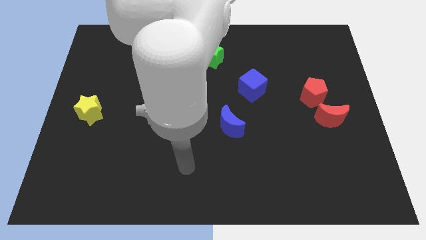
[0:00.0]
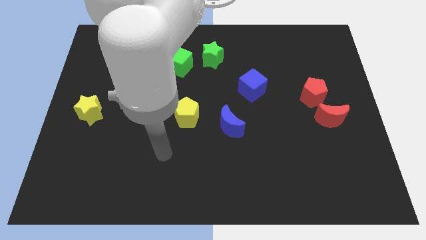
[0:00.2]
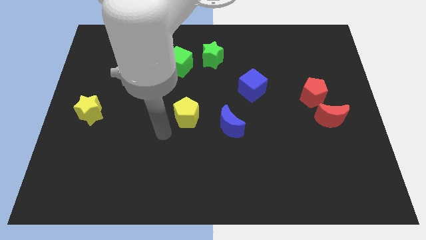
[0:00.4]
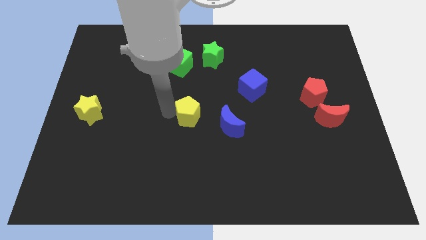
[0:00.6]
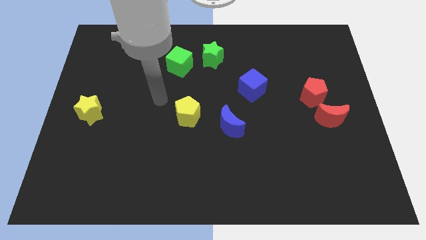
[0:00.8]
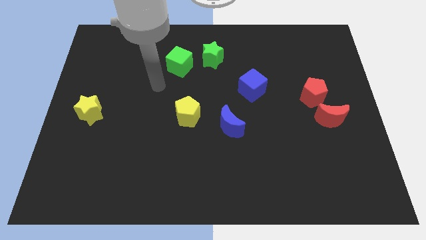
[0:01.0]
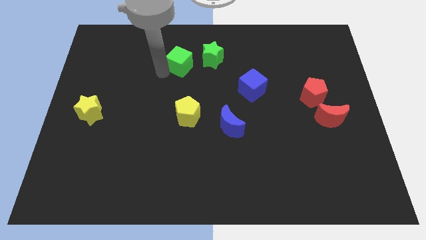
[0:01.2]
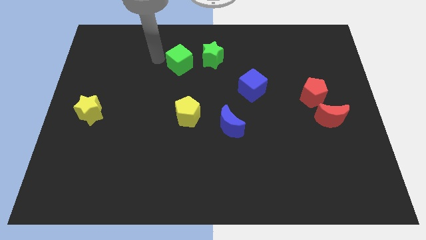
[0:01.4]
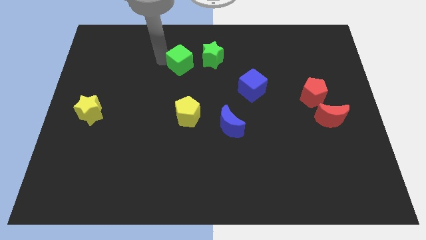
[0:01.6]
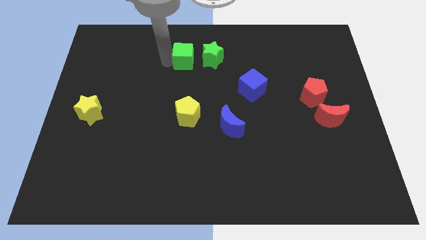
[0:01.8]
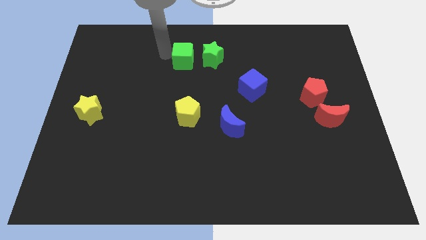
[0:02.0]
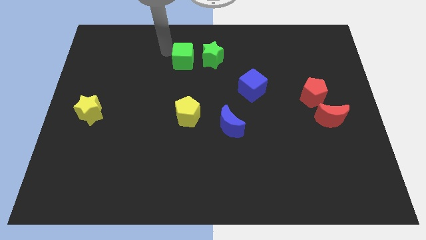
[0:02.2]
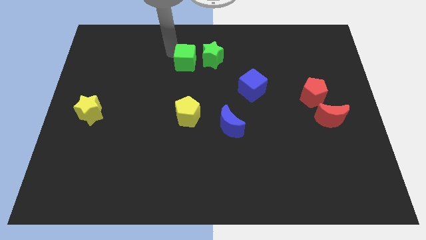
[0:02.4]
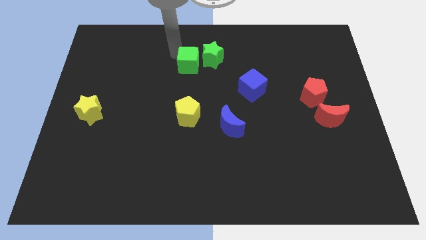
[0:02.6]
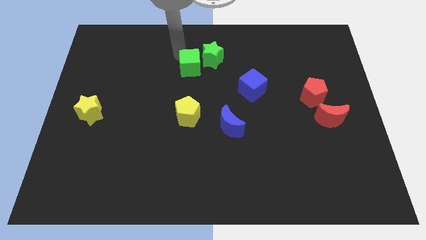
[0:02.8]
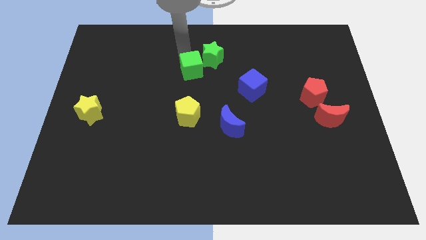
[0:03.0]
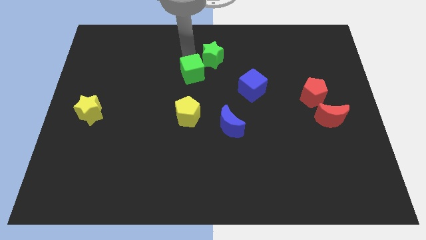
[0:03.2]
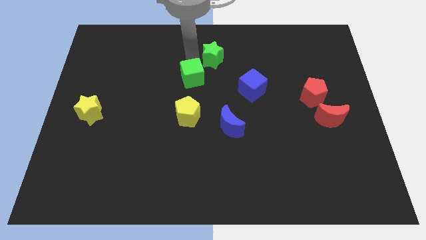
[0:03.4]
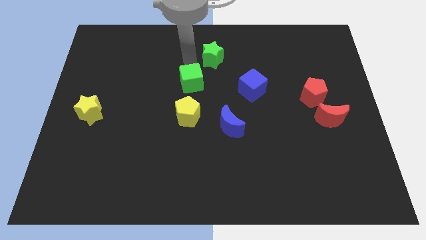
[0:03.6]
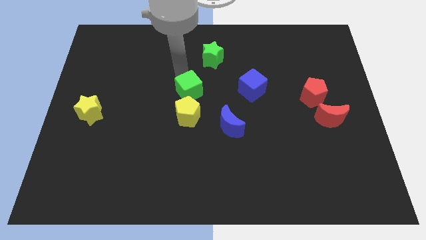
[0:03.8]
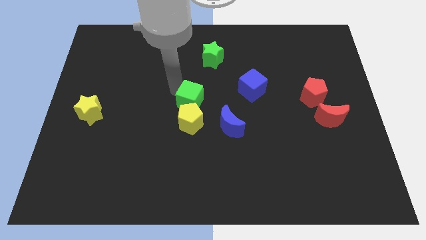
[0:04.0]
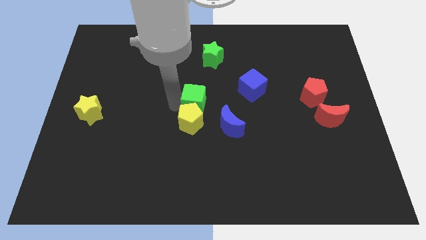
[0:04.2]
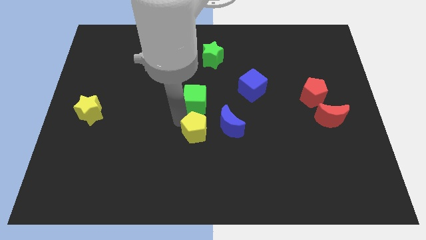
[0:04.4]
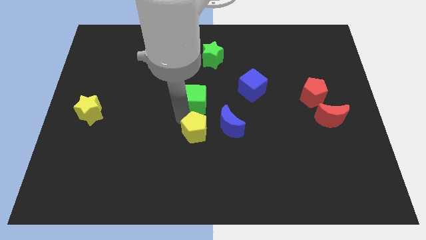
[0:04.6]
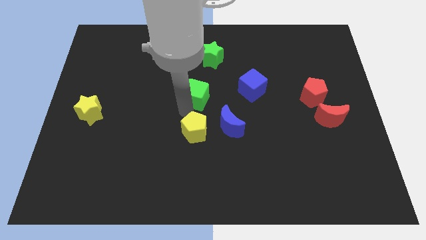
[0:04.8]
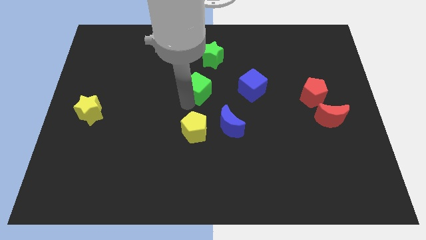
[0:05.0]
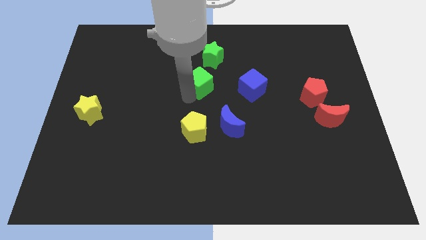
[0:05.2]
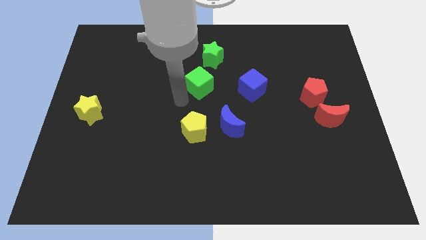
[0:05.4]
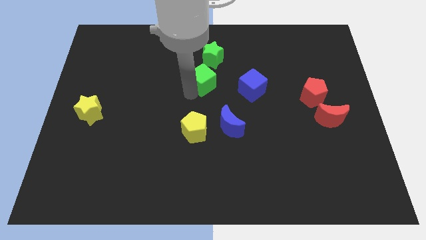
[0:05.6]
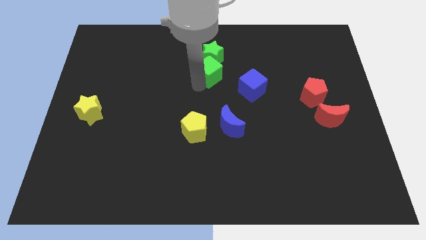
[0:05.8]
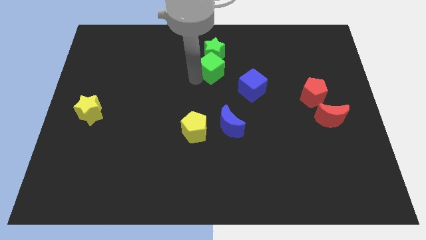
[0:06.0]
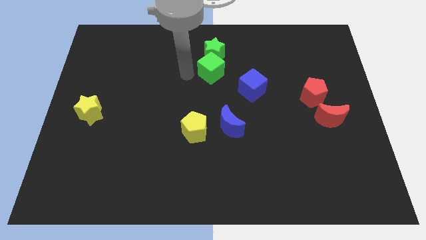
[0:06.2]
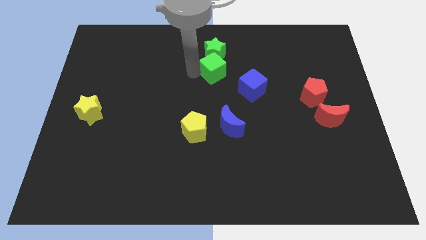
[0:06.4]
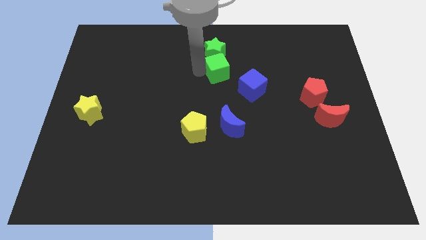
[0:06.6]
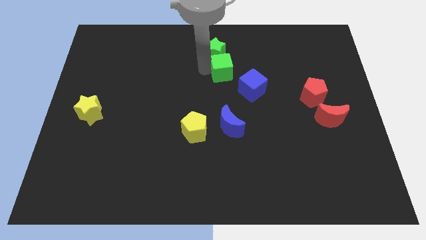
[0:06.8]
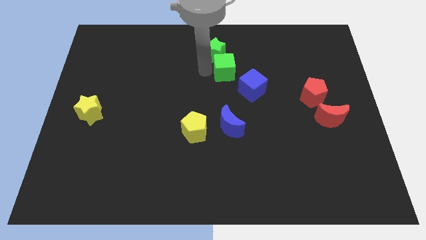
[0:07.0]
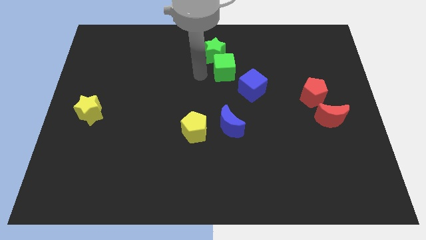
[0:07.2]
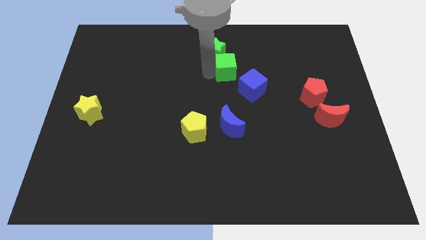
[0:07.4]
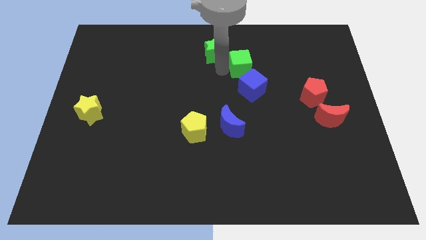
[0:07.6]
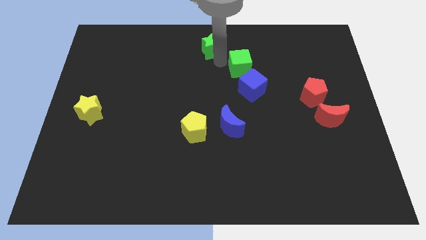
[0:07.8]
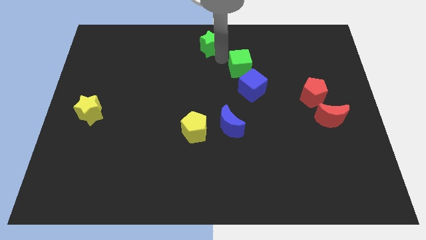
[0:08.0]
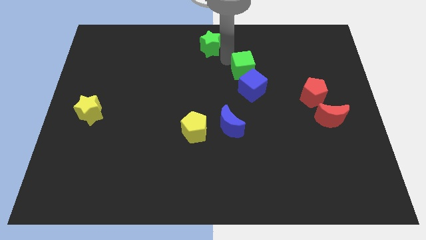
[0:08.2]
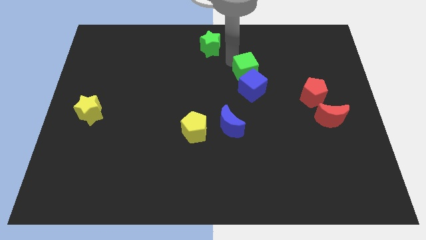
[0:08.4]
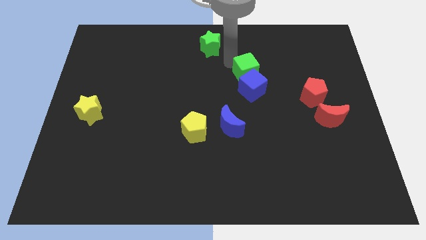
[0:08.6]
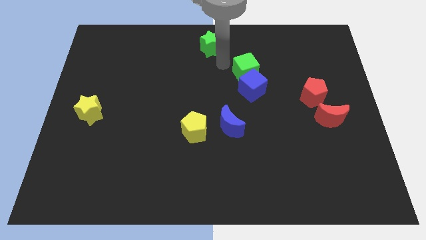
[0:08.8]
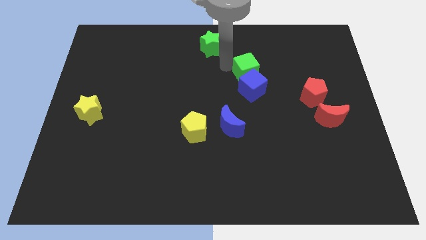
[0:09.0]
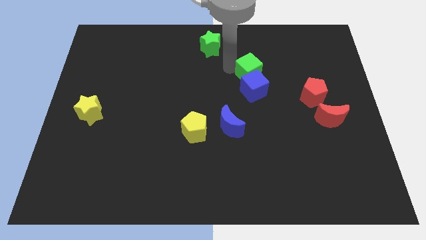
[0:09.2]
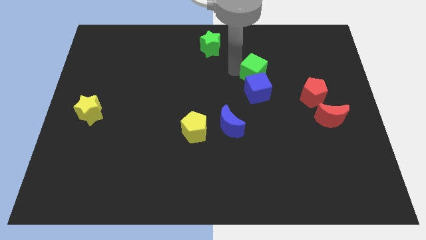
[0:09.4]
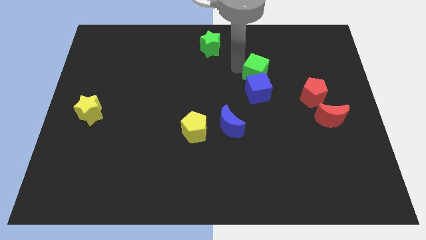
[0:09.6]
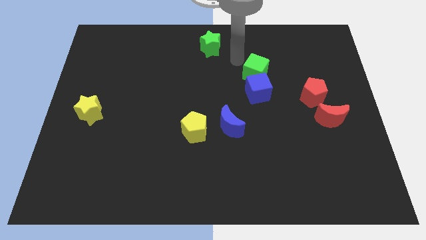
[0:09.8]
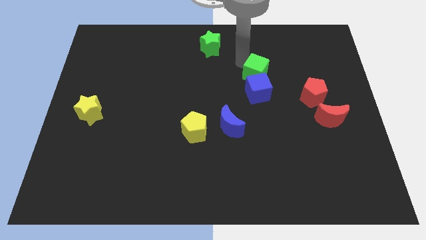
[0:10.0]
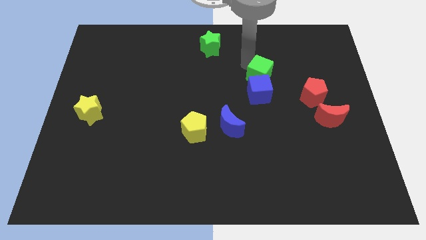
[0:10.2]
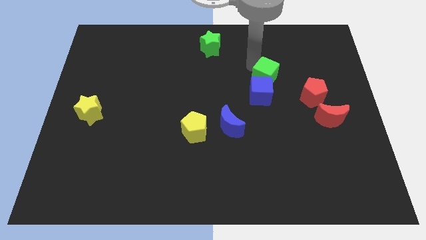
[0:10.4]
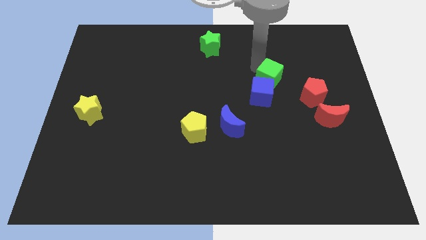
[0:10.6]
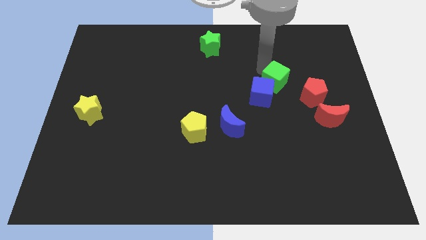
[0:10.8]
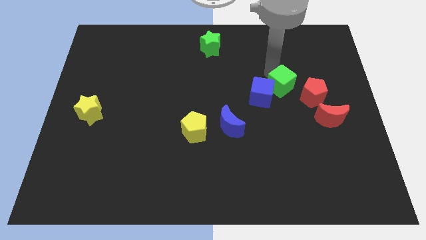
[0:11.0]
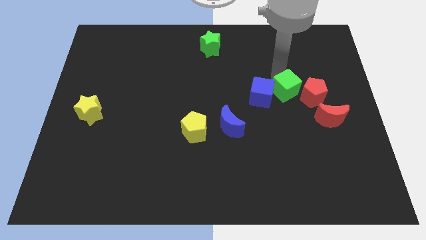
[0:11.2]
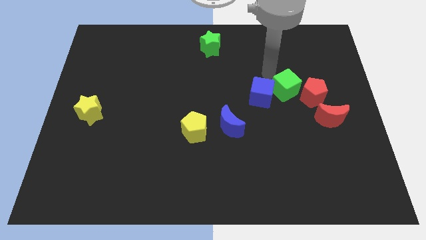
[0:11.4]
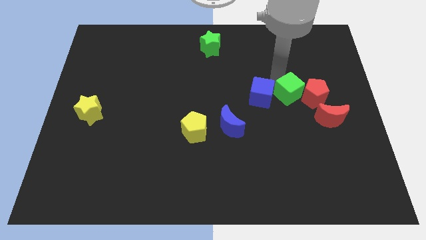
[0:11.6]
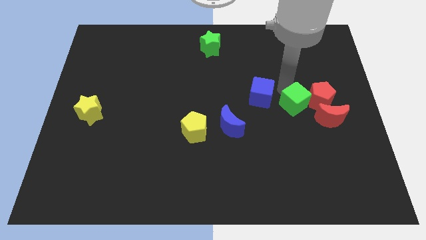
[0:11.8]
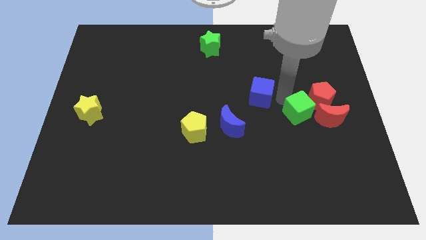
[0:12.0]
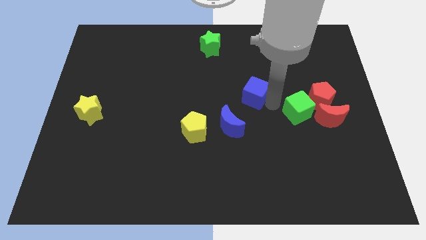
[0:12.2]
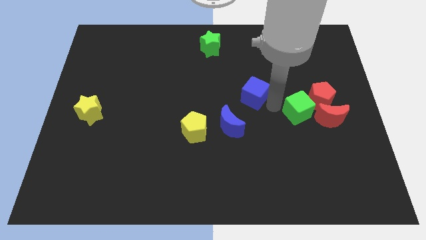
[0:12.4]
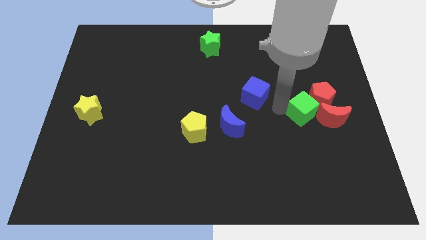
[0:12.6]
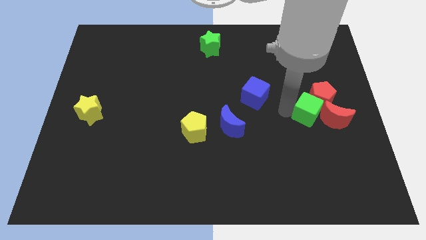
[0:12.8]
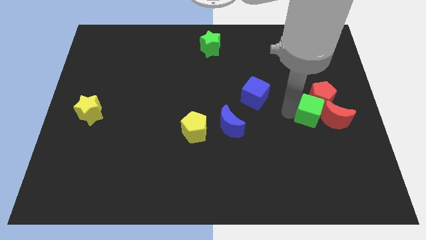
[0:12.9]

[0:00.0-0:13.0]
slide the green cube close to the red moon

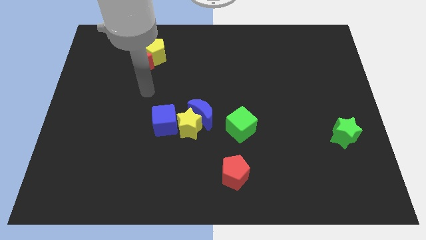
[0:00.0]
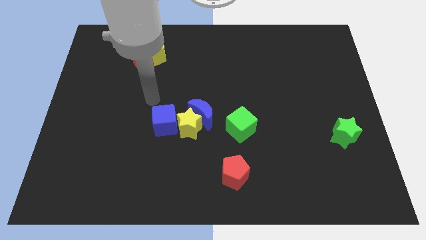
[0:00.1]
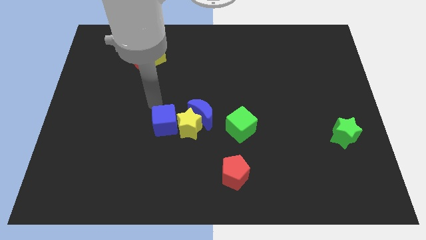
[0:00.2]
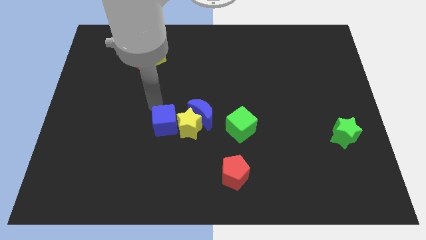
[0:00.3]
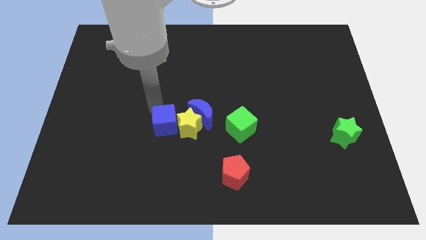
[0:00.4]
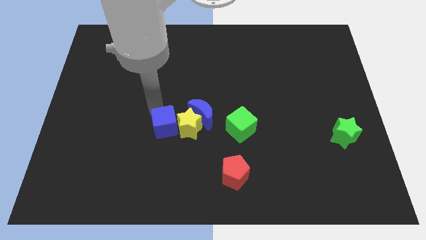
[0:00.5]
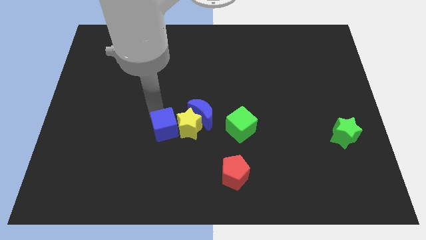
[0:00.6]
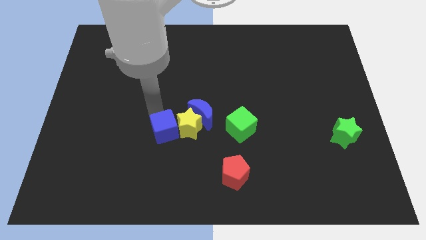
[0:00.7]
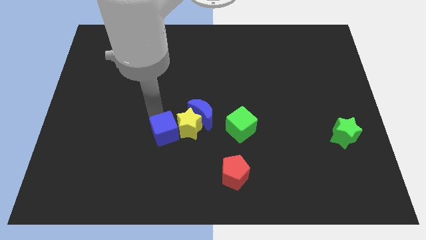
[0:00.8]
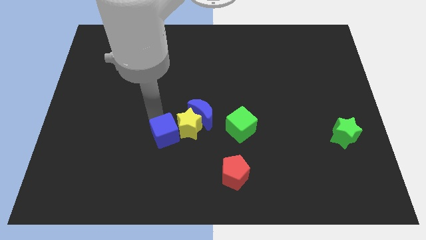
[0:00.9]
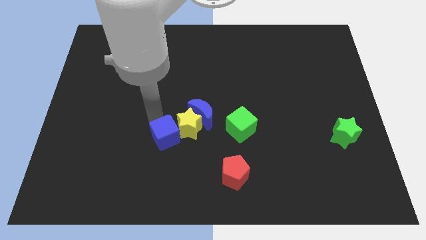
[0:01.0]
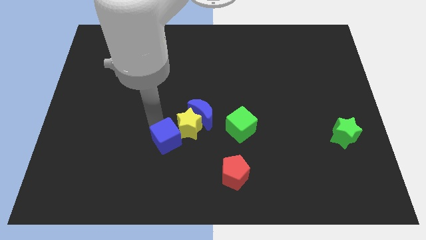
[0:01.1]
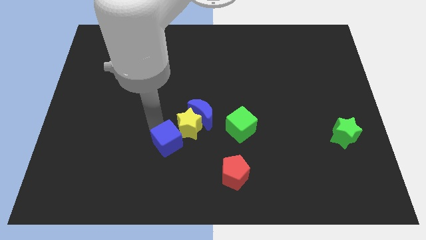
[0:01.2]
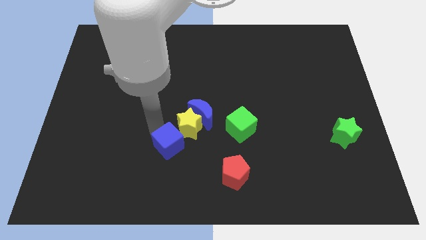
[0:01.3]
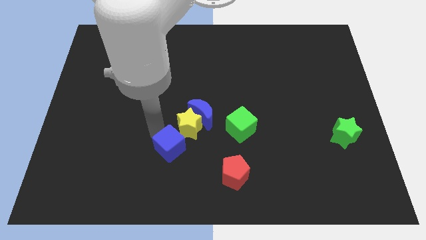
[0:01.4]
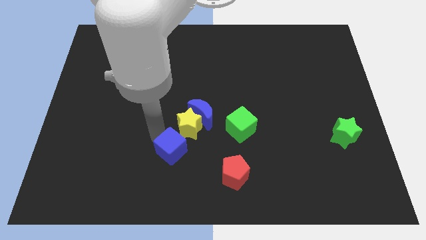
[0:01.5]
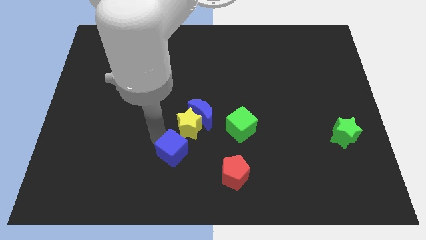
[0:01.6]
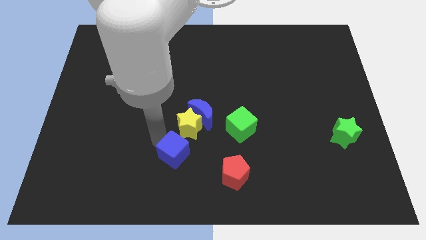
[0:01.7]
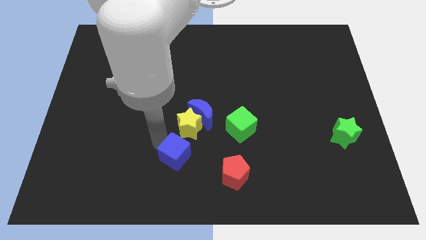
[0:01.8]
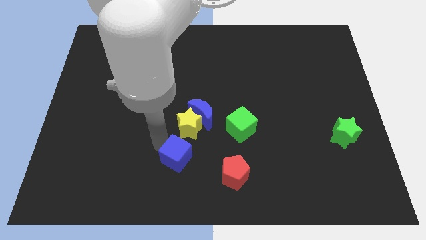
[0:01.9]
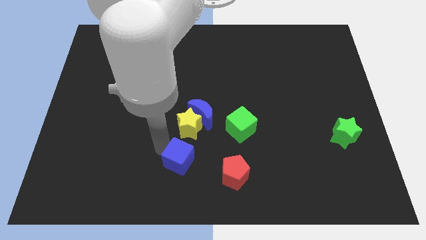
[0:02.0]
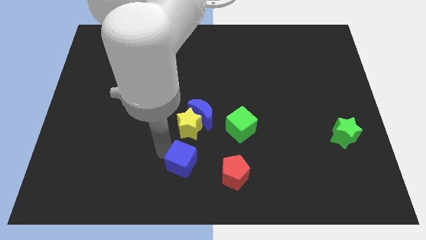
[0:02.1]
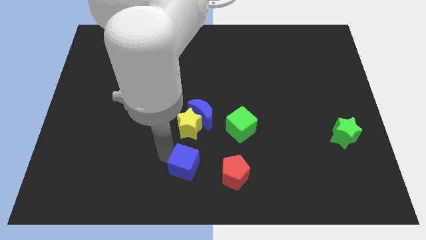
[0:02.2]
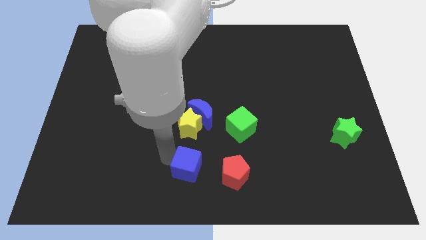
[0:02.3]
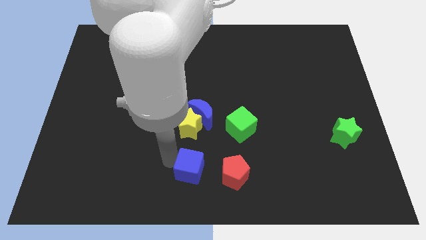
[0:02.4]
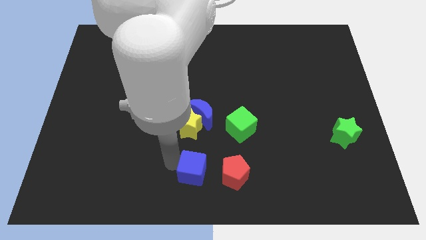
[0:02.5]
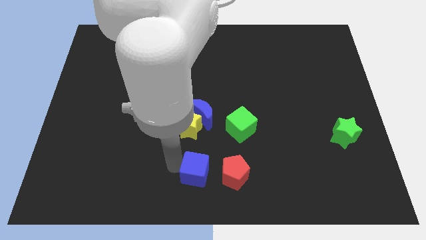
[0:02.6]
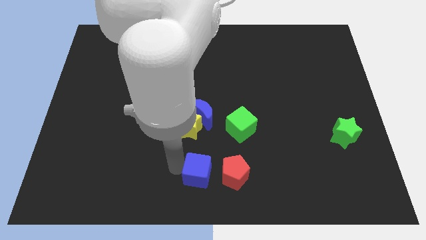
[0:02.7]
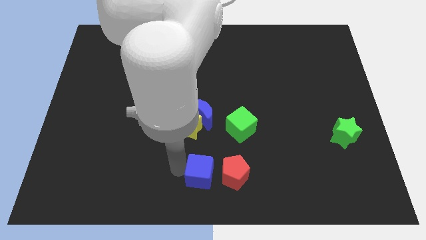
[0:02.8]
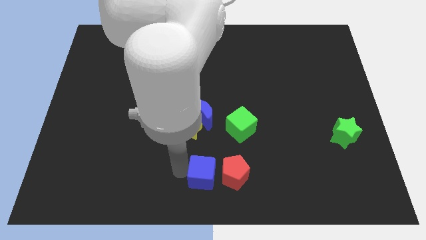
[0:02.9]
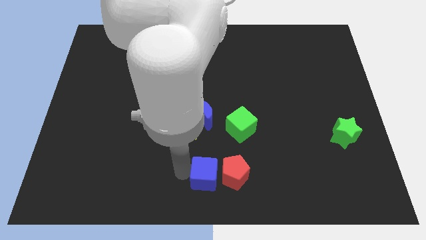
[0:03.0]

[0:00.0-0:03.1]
put the blue cube to the red pentagon
